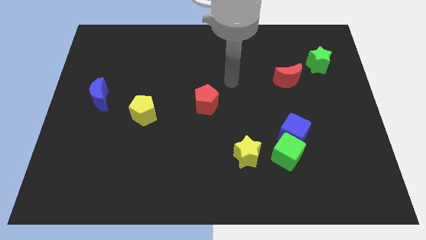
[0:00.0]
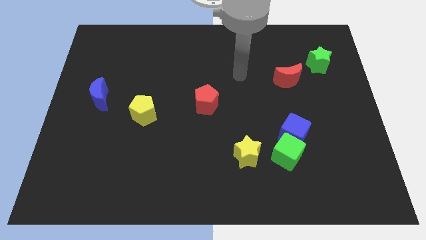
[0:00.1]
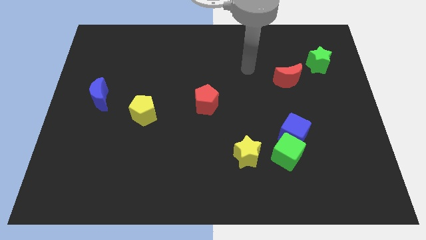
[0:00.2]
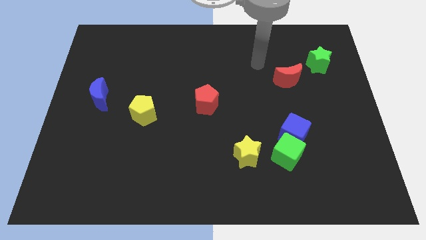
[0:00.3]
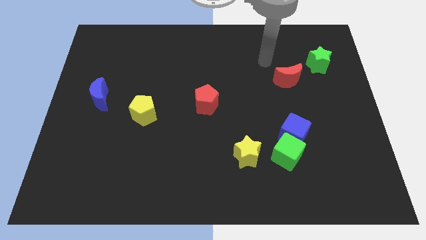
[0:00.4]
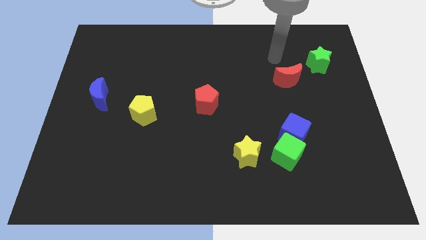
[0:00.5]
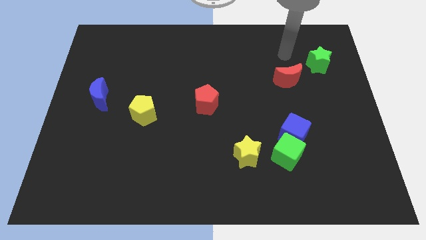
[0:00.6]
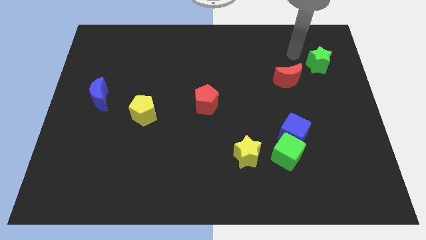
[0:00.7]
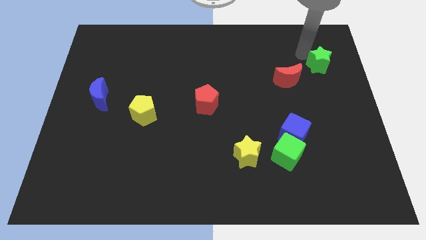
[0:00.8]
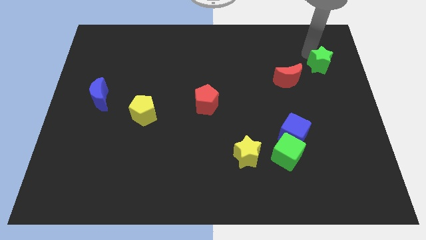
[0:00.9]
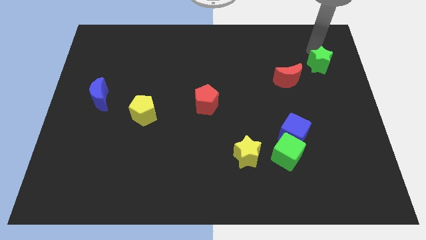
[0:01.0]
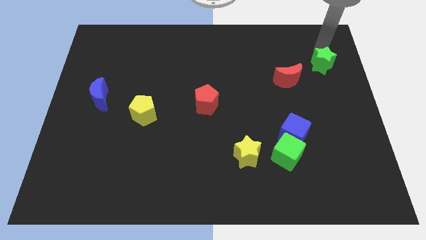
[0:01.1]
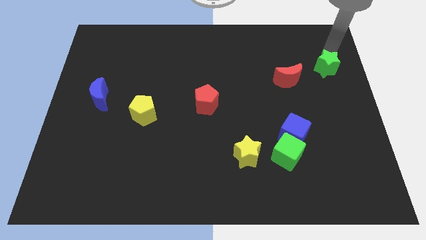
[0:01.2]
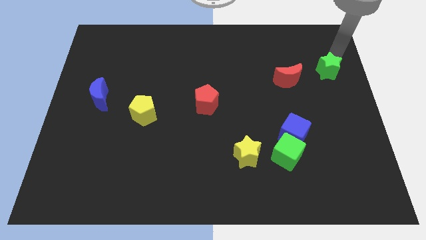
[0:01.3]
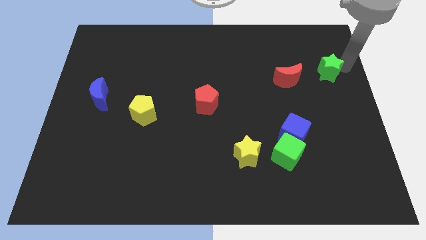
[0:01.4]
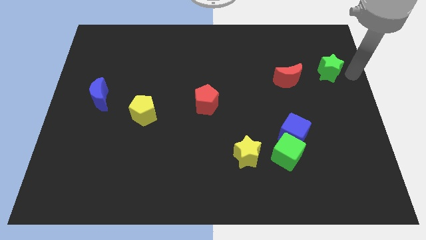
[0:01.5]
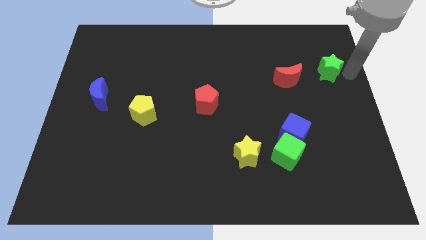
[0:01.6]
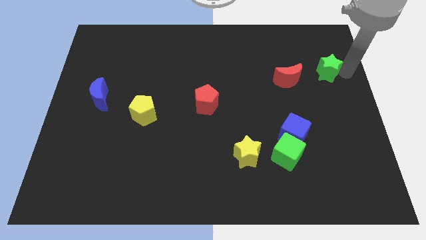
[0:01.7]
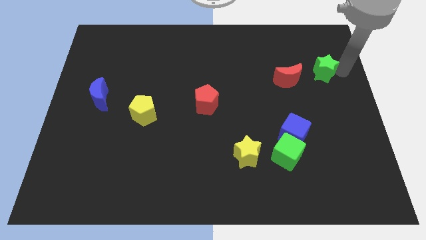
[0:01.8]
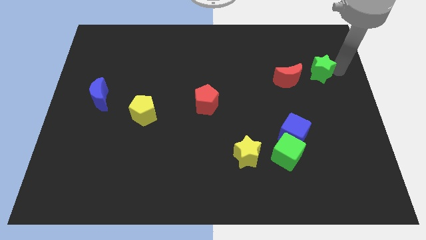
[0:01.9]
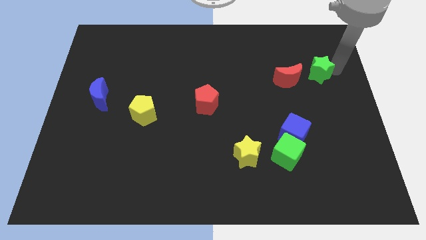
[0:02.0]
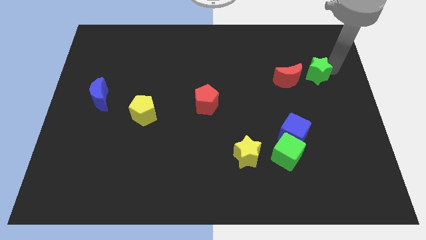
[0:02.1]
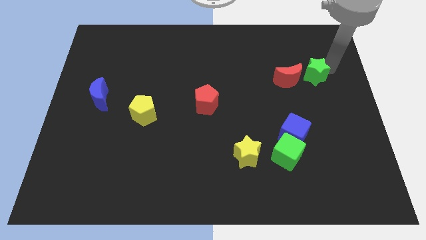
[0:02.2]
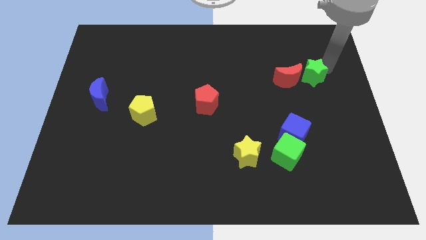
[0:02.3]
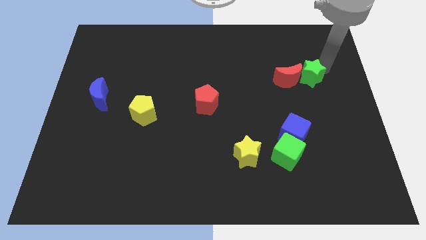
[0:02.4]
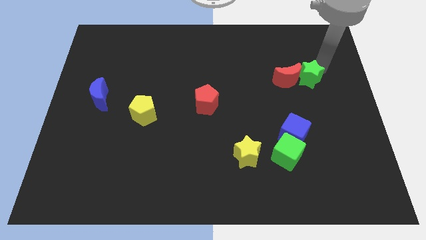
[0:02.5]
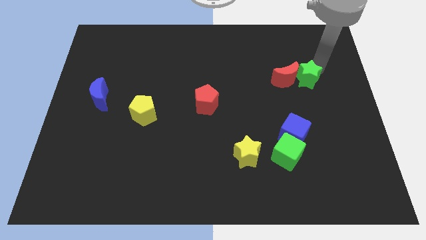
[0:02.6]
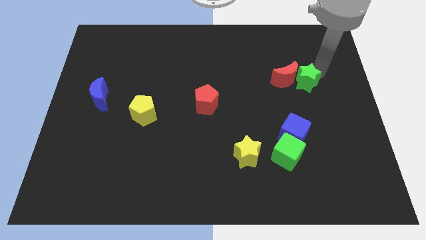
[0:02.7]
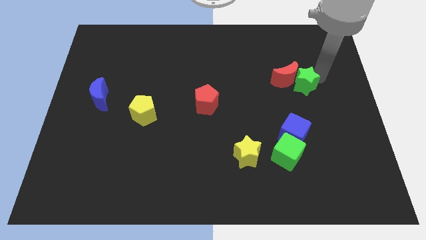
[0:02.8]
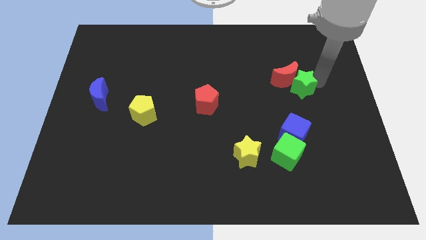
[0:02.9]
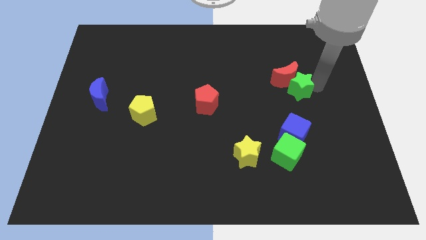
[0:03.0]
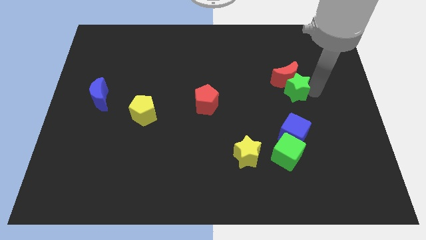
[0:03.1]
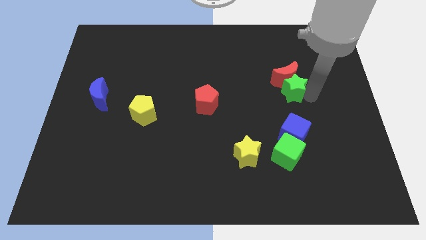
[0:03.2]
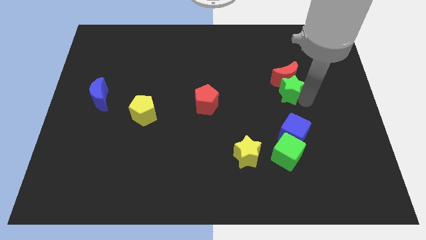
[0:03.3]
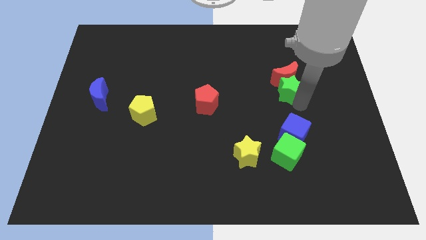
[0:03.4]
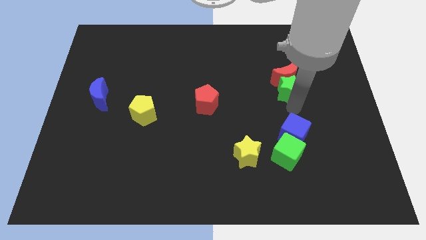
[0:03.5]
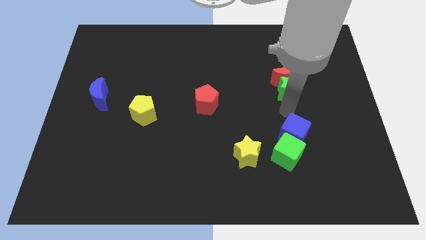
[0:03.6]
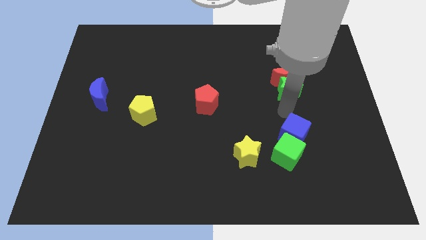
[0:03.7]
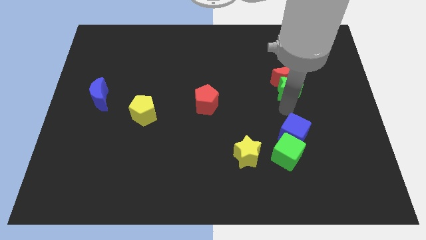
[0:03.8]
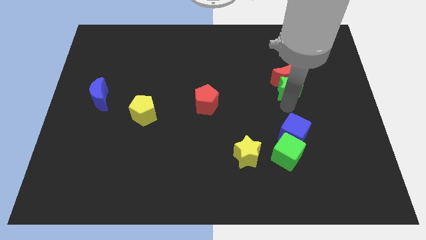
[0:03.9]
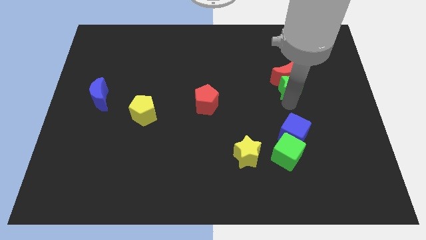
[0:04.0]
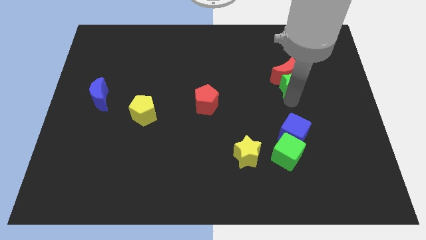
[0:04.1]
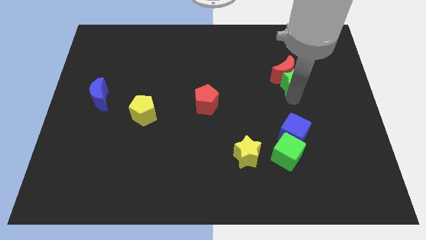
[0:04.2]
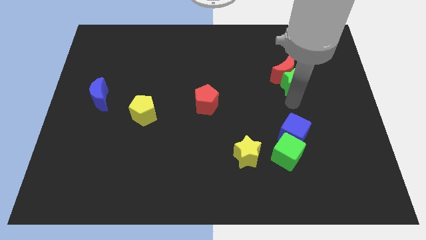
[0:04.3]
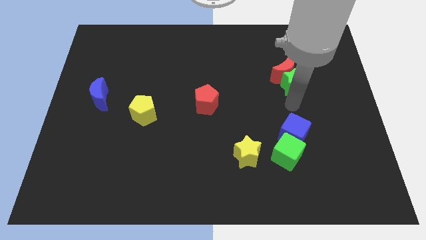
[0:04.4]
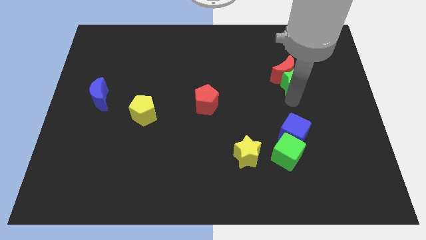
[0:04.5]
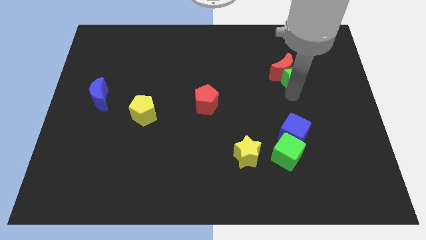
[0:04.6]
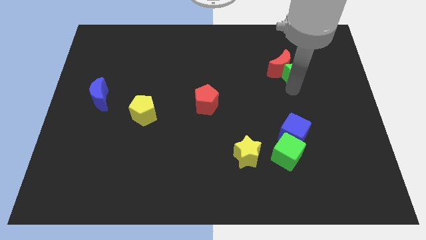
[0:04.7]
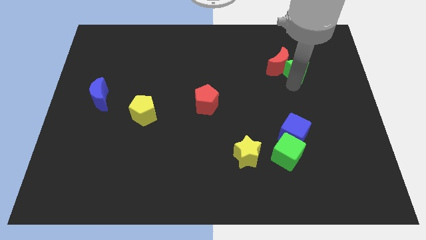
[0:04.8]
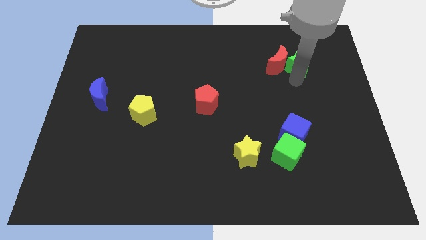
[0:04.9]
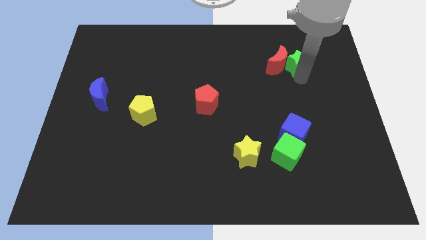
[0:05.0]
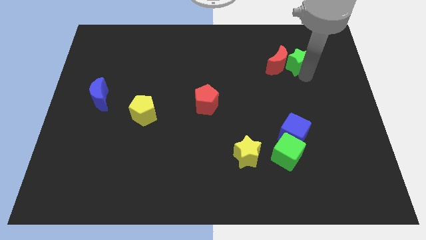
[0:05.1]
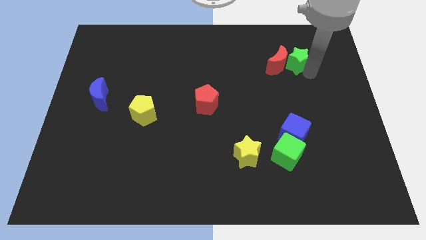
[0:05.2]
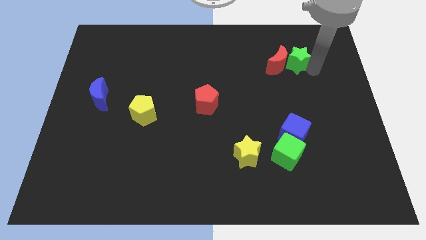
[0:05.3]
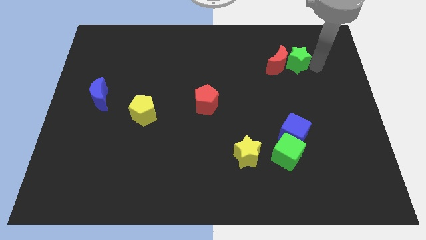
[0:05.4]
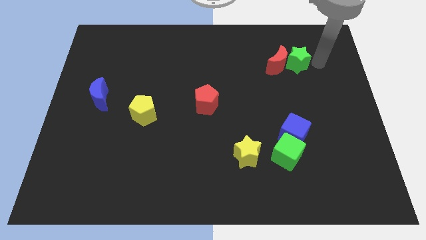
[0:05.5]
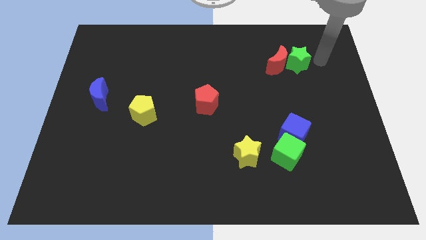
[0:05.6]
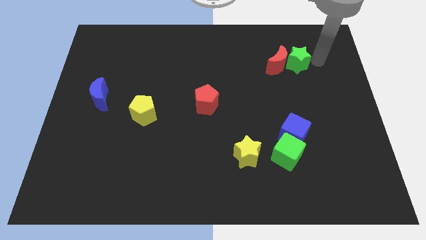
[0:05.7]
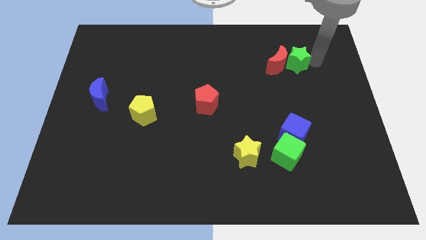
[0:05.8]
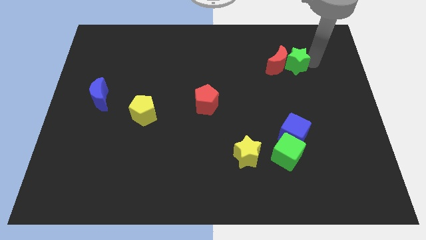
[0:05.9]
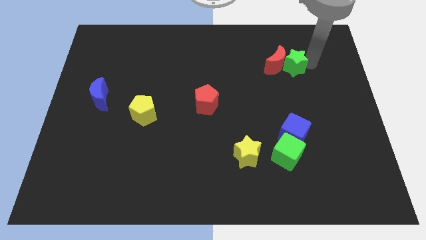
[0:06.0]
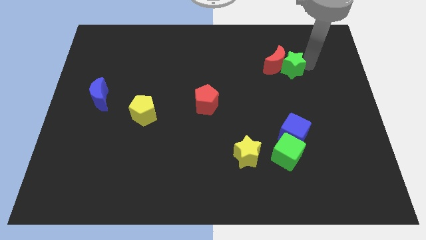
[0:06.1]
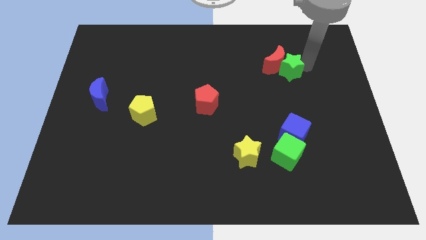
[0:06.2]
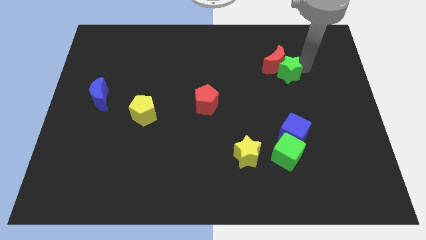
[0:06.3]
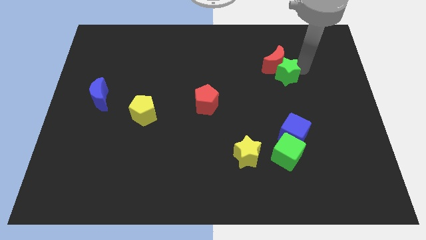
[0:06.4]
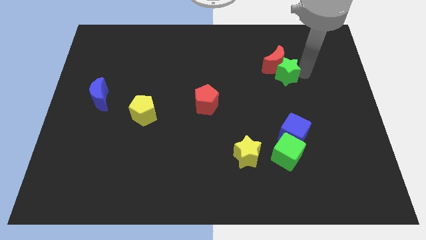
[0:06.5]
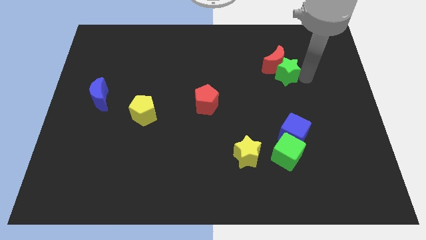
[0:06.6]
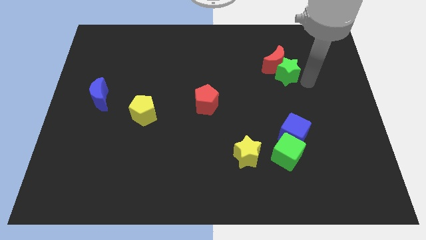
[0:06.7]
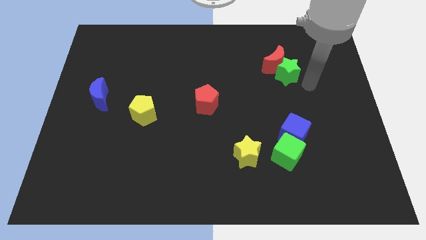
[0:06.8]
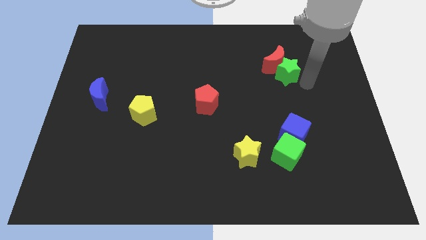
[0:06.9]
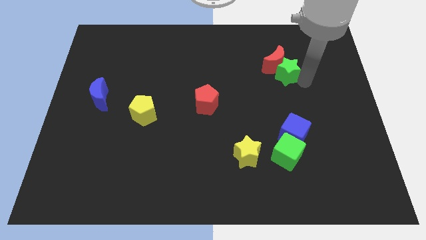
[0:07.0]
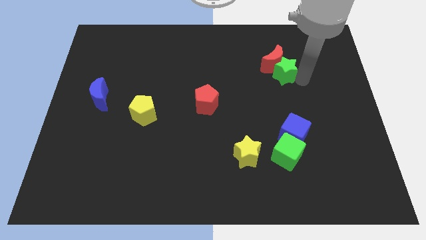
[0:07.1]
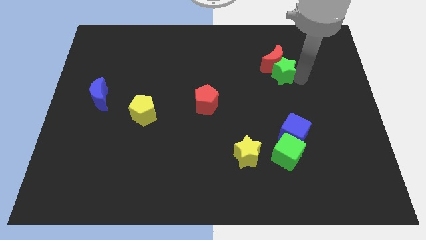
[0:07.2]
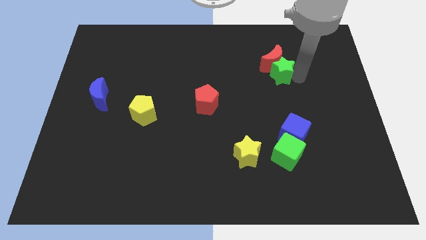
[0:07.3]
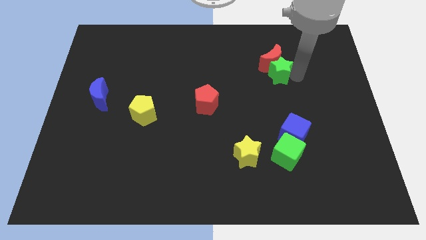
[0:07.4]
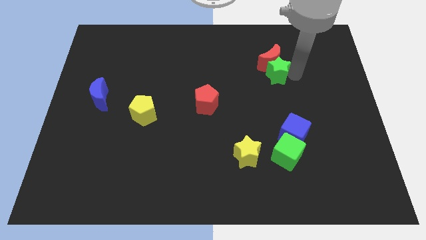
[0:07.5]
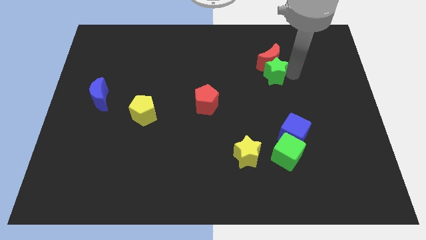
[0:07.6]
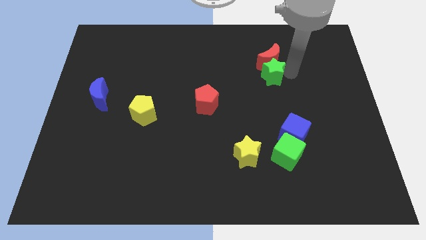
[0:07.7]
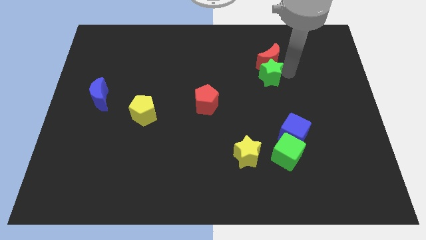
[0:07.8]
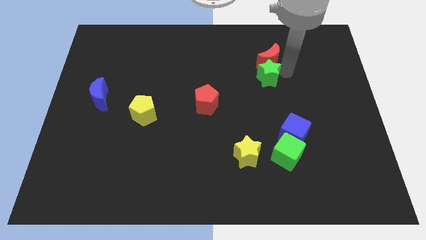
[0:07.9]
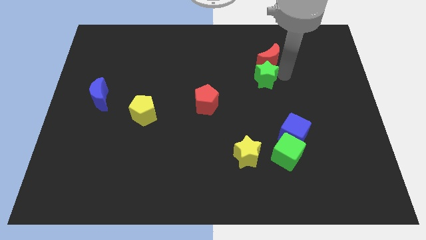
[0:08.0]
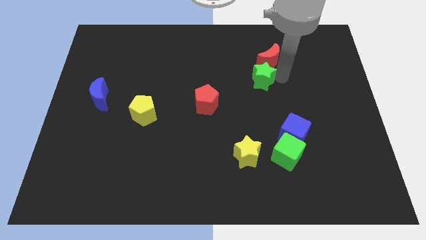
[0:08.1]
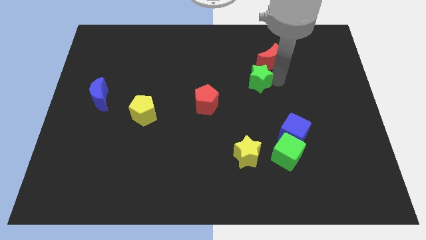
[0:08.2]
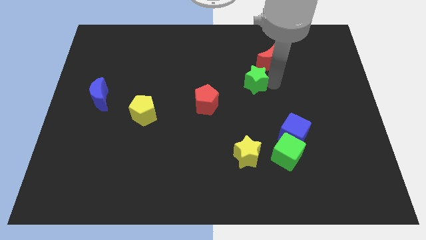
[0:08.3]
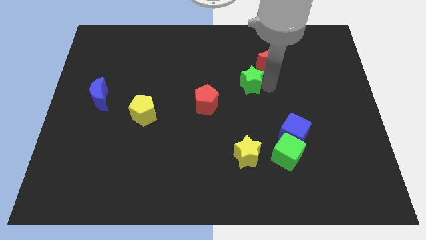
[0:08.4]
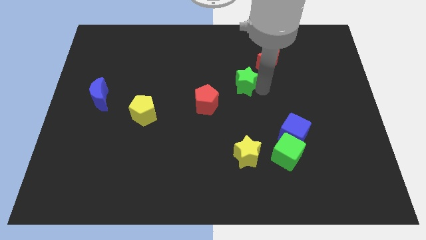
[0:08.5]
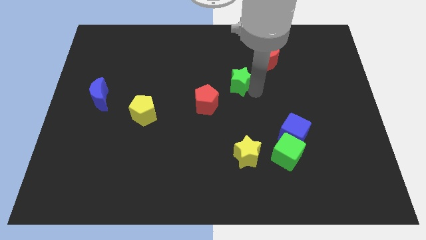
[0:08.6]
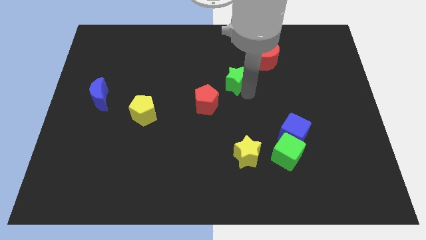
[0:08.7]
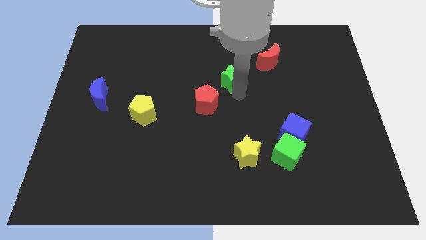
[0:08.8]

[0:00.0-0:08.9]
push the green star to the left
